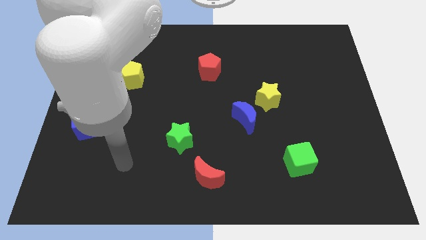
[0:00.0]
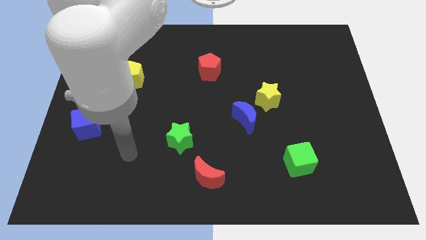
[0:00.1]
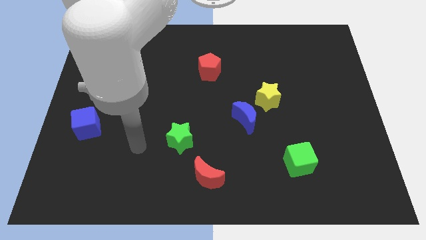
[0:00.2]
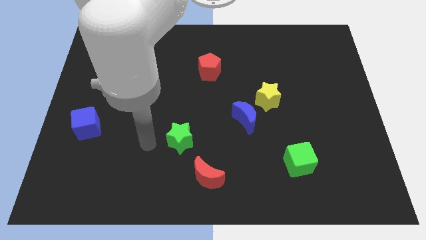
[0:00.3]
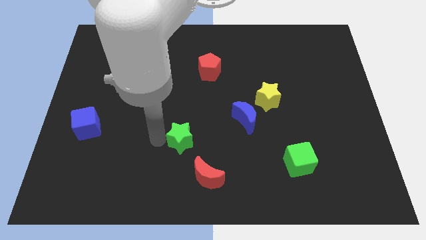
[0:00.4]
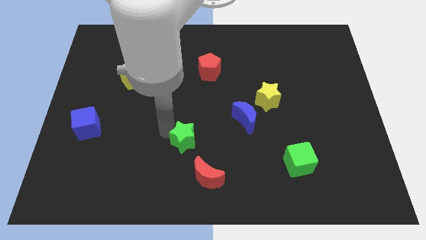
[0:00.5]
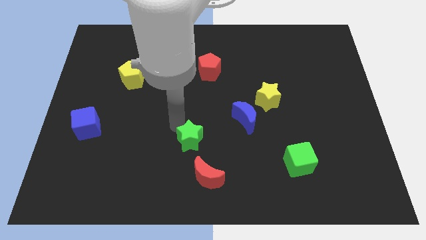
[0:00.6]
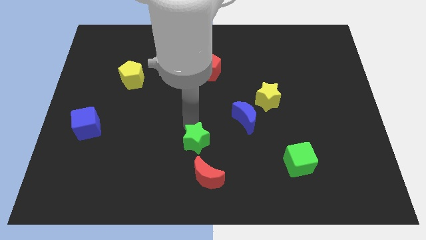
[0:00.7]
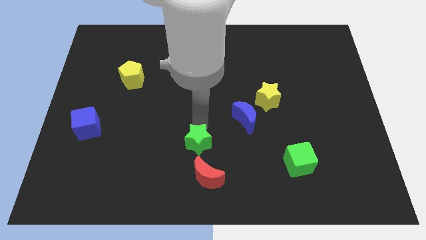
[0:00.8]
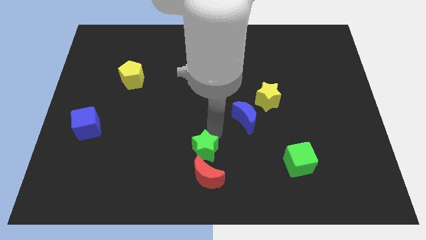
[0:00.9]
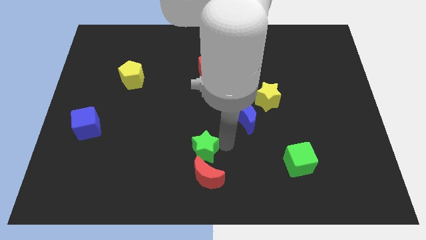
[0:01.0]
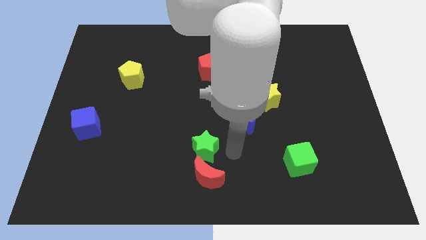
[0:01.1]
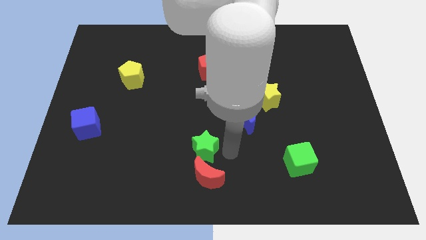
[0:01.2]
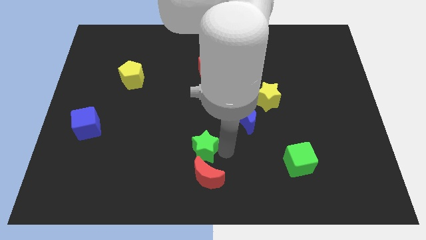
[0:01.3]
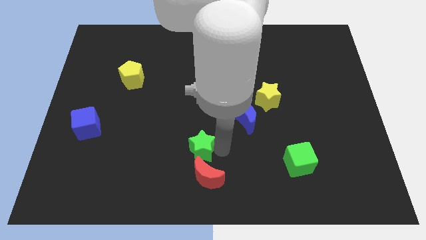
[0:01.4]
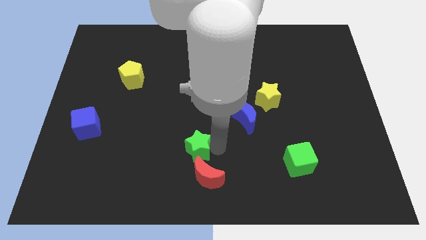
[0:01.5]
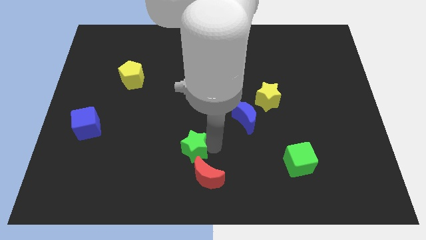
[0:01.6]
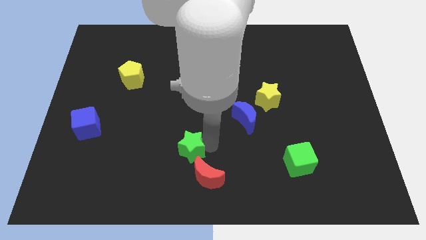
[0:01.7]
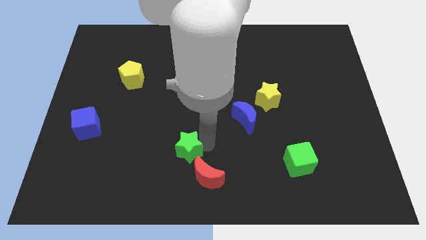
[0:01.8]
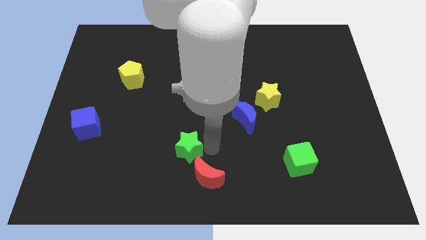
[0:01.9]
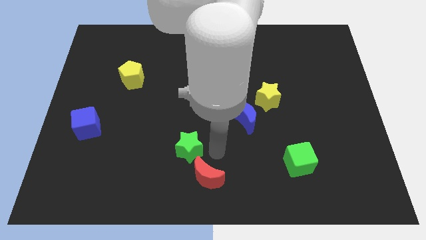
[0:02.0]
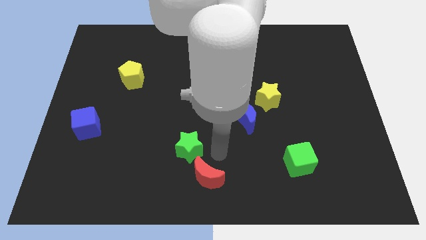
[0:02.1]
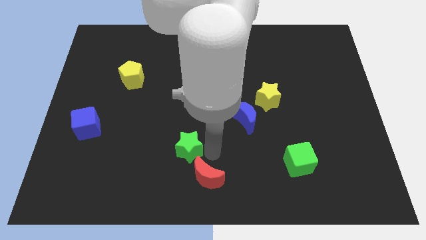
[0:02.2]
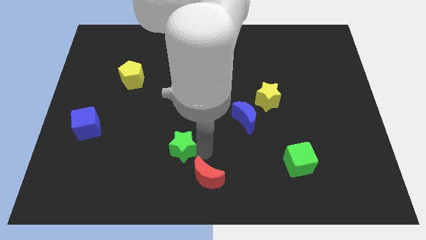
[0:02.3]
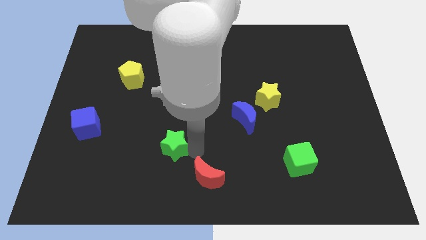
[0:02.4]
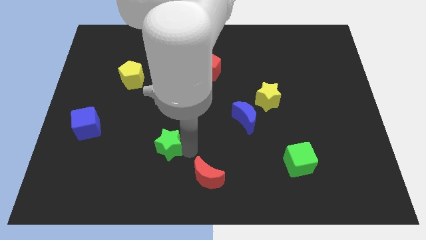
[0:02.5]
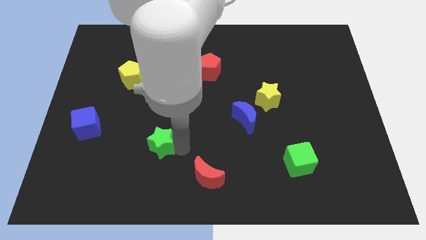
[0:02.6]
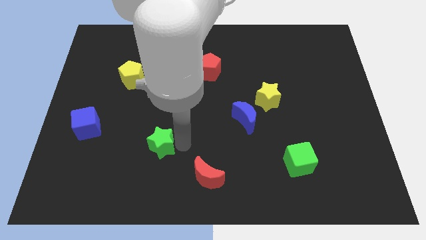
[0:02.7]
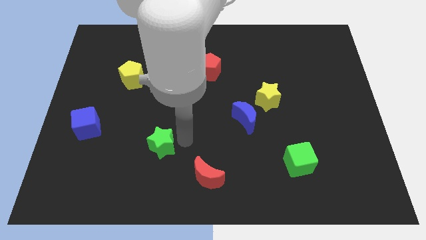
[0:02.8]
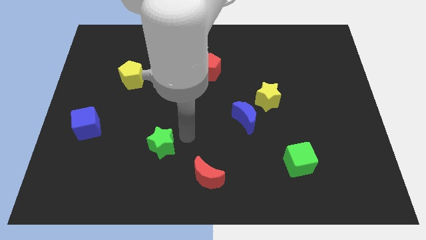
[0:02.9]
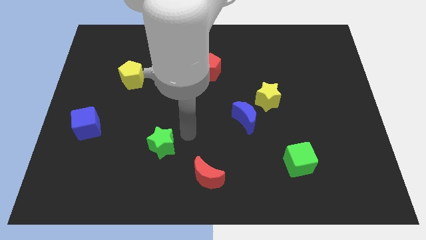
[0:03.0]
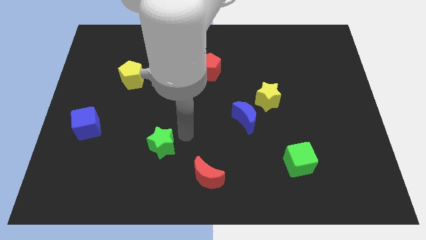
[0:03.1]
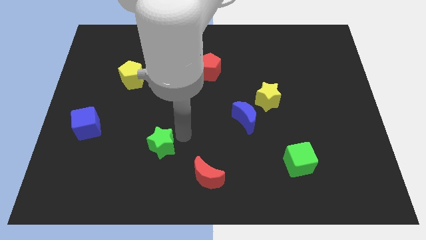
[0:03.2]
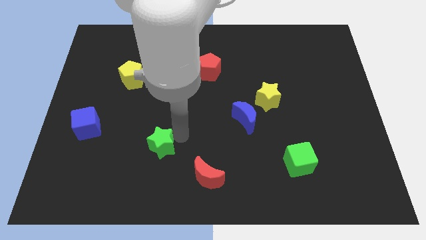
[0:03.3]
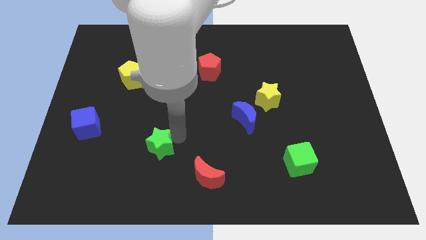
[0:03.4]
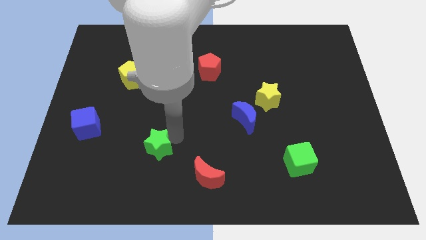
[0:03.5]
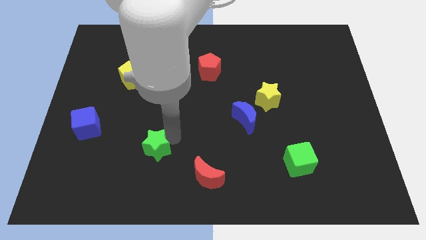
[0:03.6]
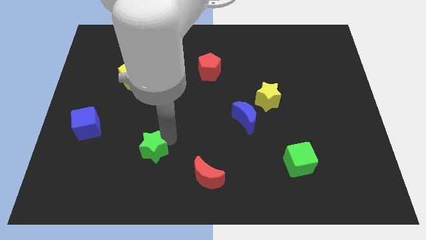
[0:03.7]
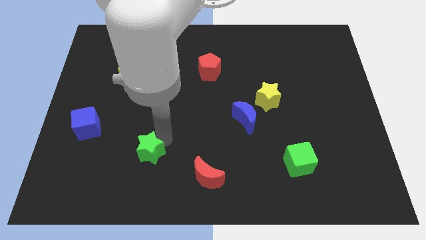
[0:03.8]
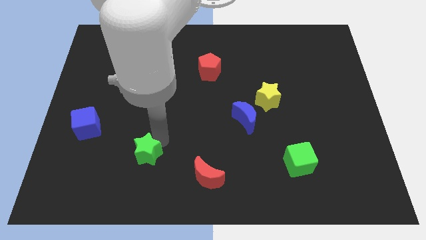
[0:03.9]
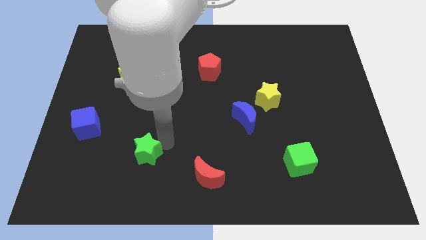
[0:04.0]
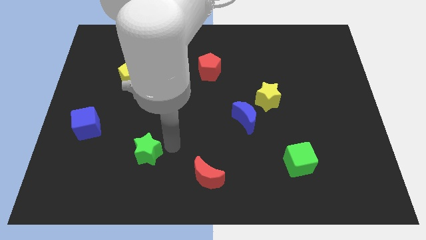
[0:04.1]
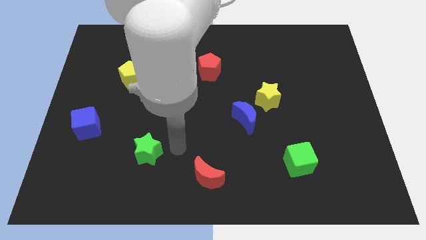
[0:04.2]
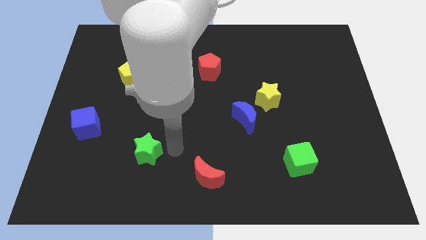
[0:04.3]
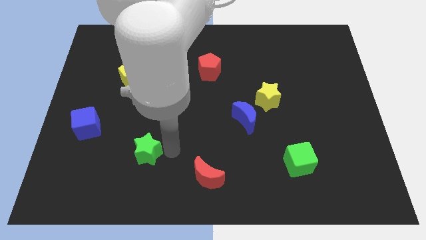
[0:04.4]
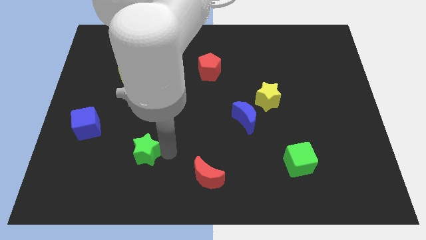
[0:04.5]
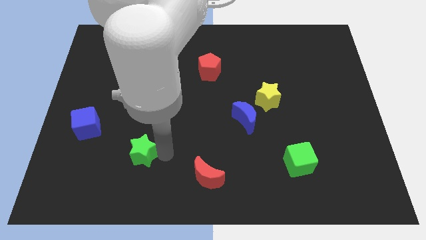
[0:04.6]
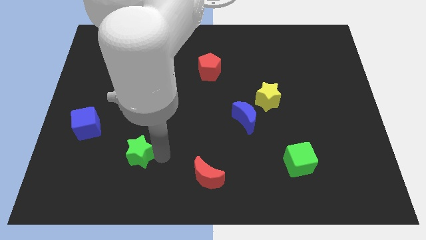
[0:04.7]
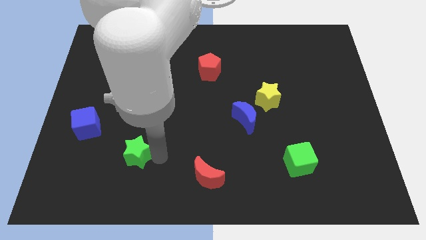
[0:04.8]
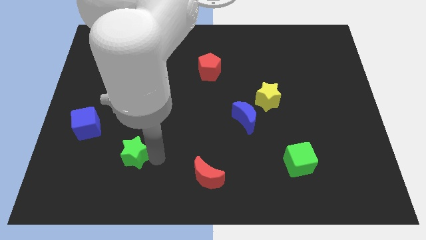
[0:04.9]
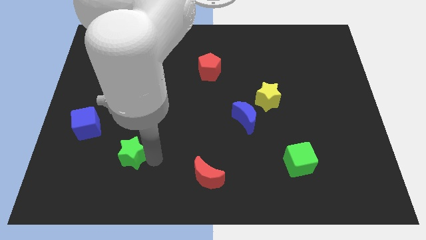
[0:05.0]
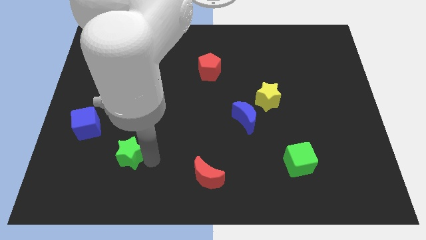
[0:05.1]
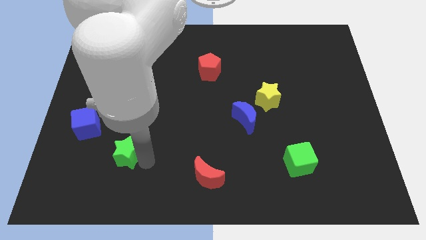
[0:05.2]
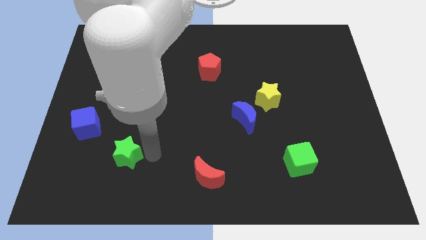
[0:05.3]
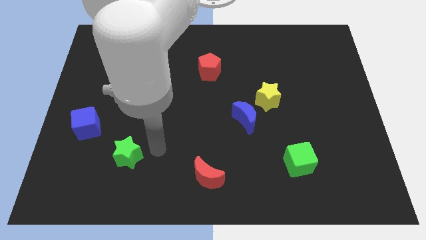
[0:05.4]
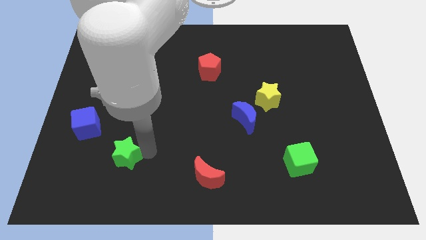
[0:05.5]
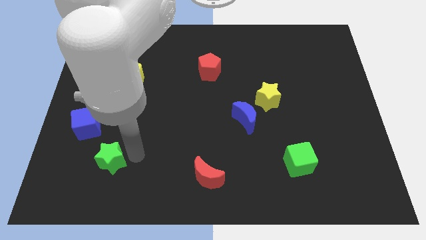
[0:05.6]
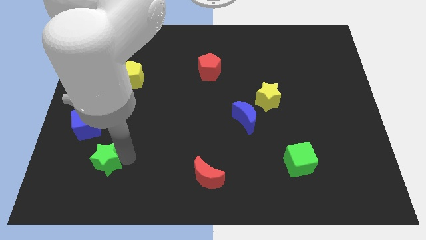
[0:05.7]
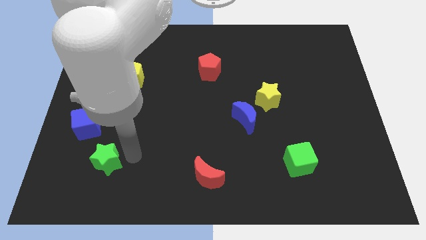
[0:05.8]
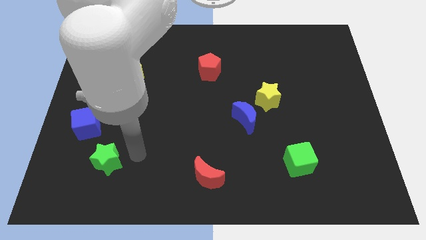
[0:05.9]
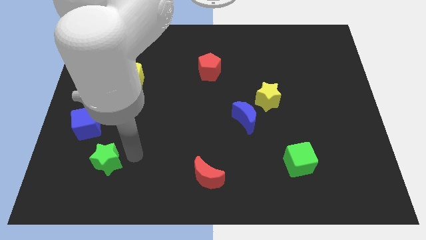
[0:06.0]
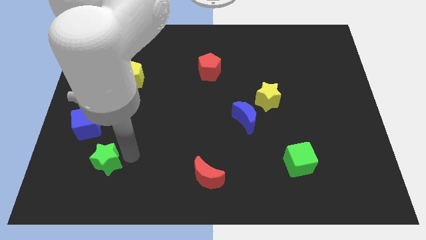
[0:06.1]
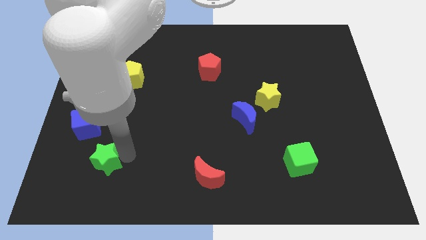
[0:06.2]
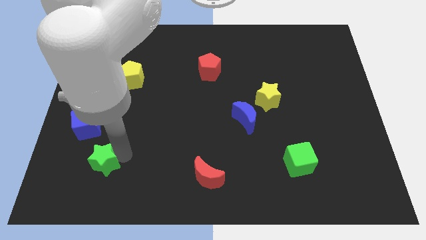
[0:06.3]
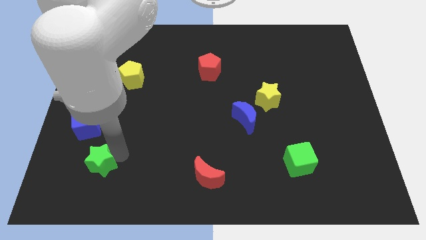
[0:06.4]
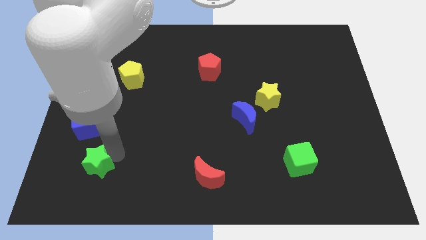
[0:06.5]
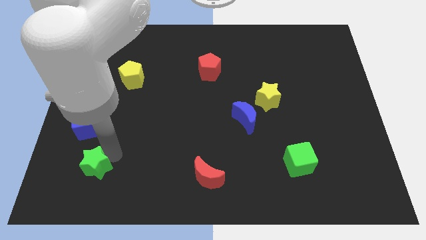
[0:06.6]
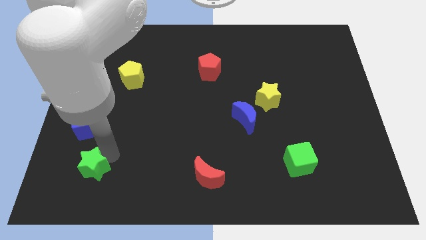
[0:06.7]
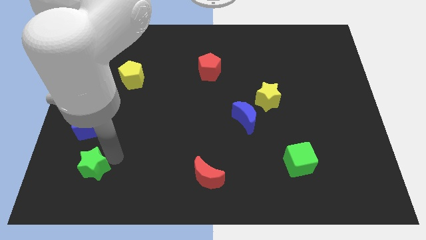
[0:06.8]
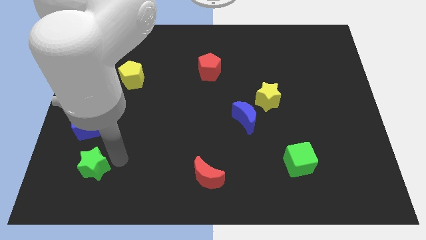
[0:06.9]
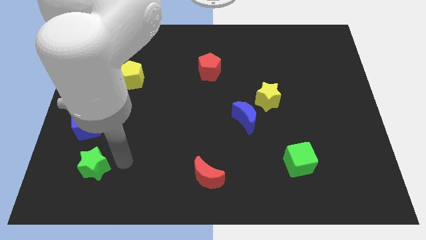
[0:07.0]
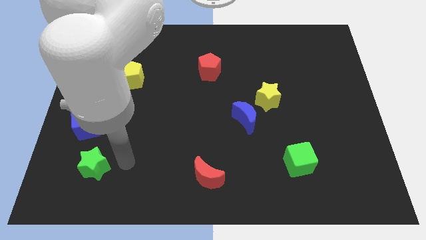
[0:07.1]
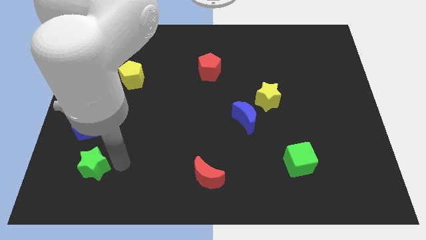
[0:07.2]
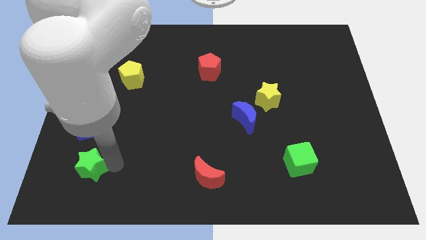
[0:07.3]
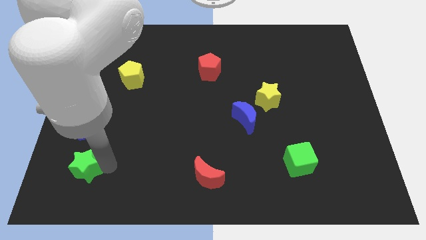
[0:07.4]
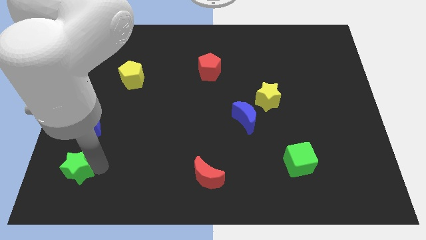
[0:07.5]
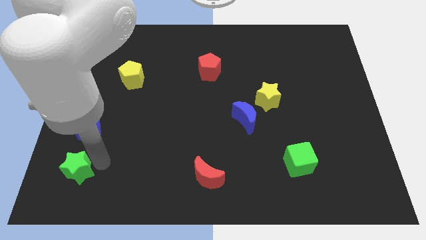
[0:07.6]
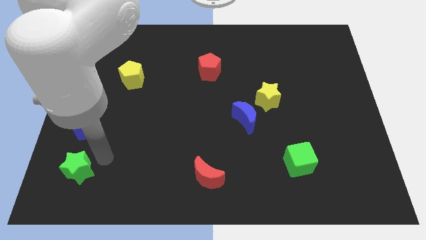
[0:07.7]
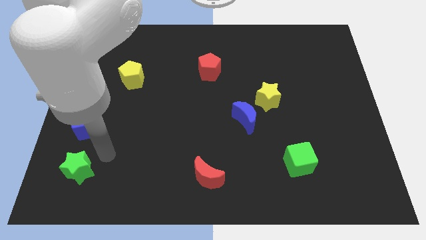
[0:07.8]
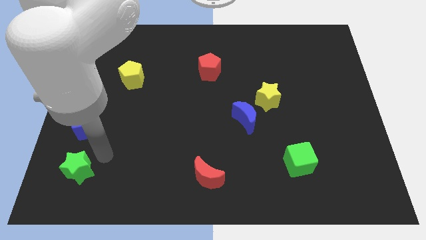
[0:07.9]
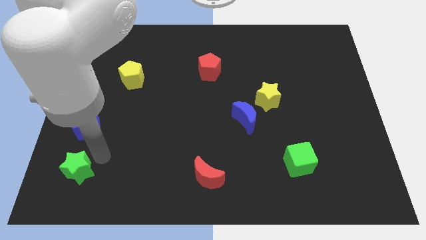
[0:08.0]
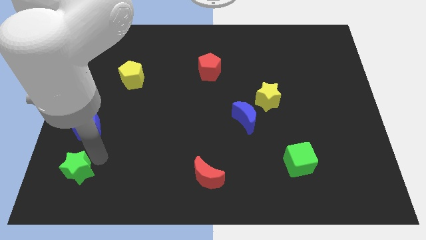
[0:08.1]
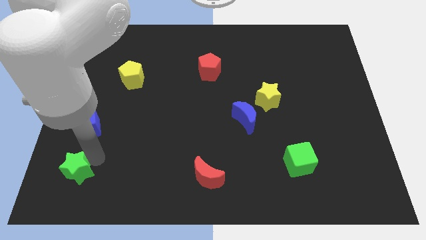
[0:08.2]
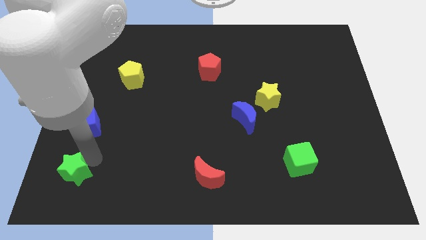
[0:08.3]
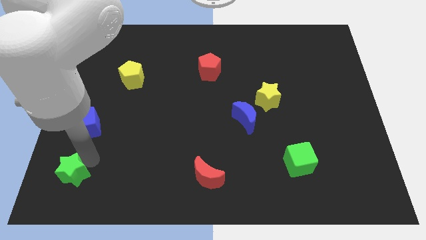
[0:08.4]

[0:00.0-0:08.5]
move the green star to the bottom left of the board
